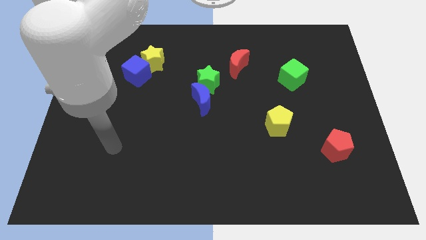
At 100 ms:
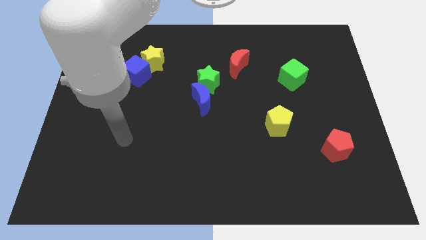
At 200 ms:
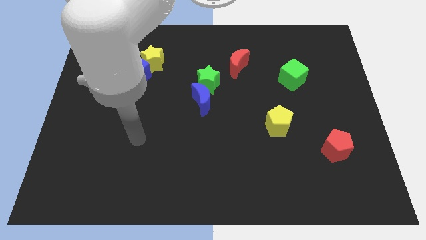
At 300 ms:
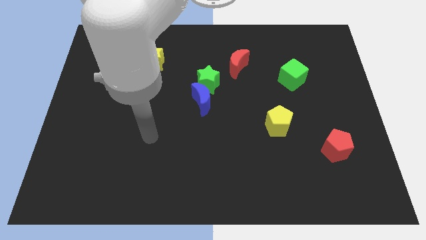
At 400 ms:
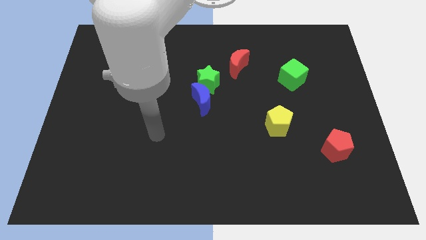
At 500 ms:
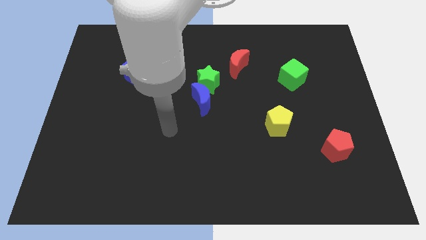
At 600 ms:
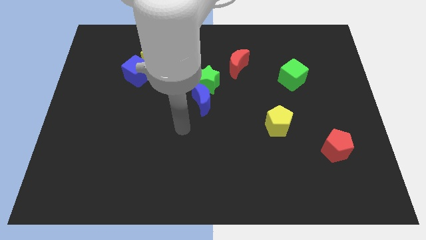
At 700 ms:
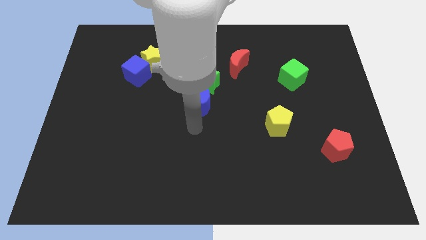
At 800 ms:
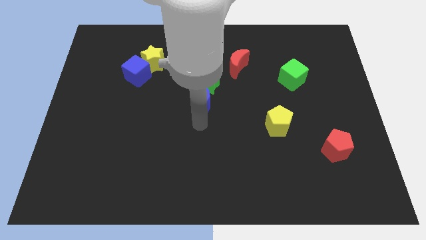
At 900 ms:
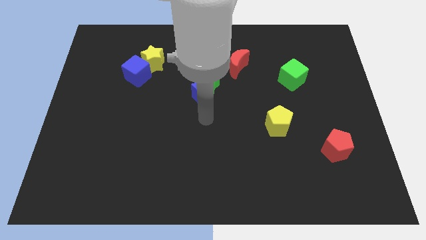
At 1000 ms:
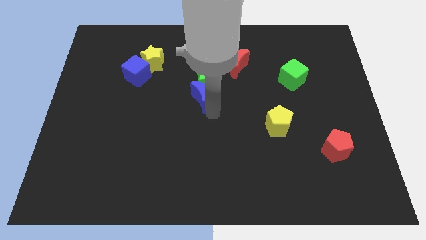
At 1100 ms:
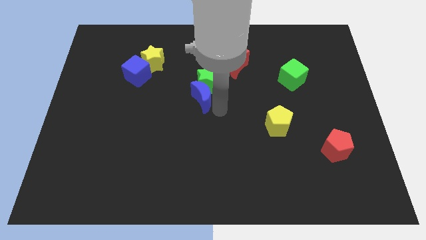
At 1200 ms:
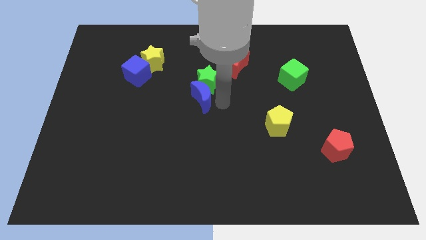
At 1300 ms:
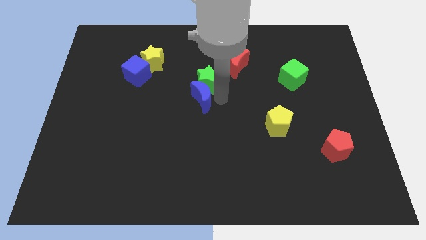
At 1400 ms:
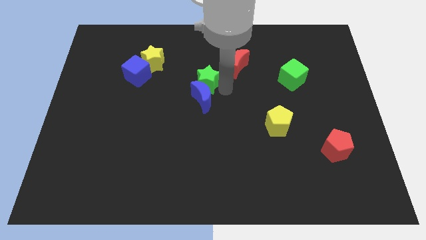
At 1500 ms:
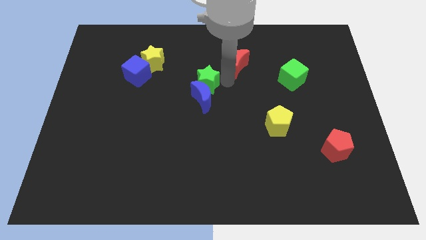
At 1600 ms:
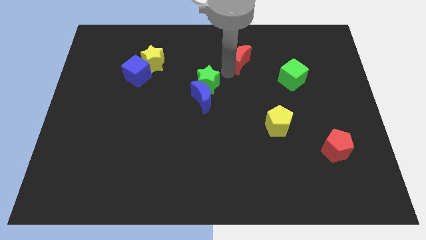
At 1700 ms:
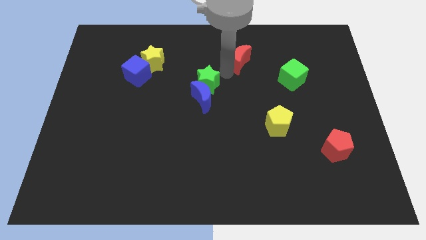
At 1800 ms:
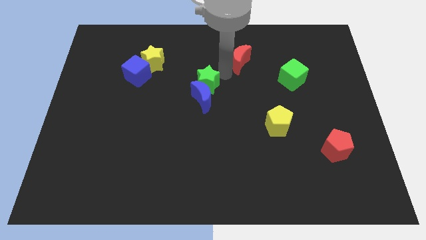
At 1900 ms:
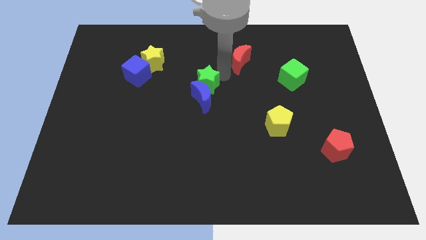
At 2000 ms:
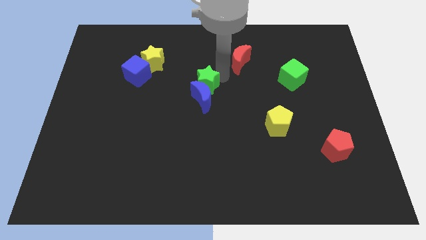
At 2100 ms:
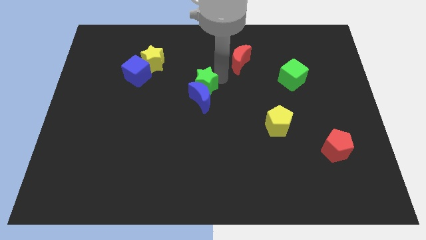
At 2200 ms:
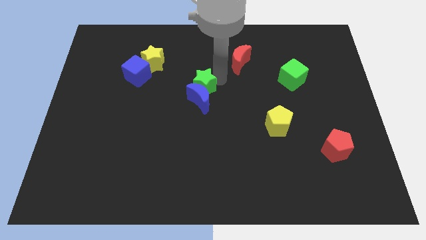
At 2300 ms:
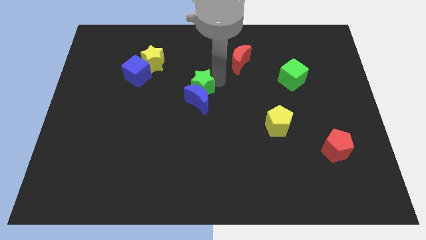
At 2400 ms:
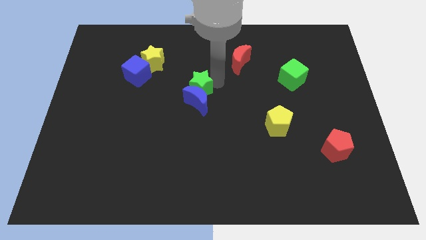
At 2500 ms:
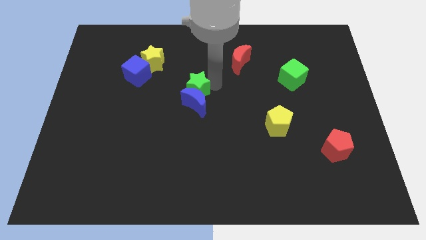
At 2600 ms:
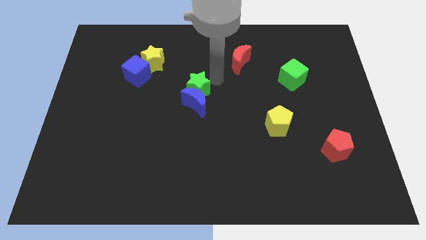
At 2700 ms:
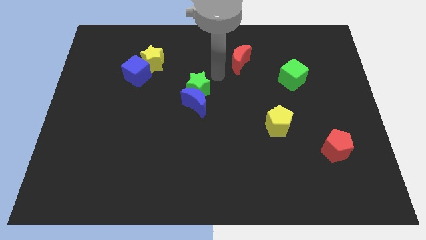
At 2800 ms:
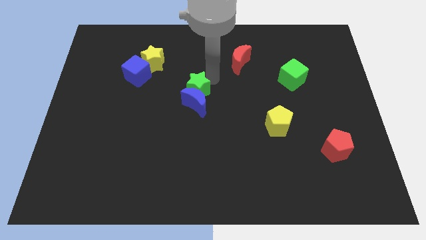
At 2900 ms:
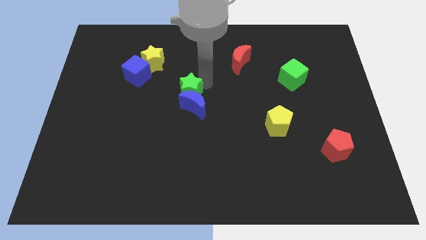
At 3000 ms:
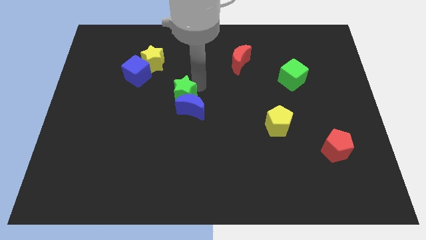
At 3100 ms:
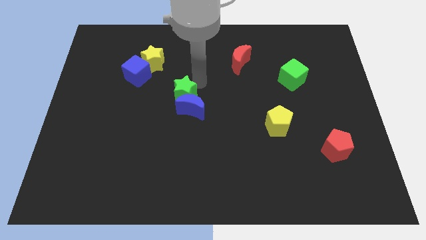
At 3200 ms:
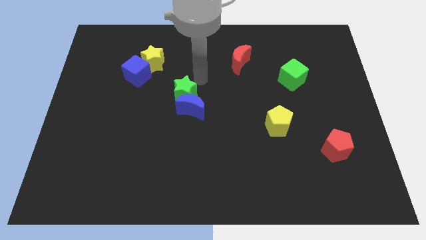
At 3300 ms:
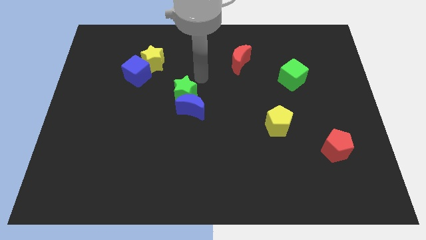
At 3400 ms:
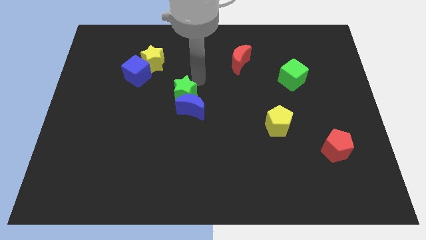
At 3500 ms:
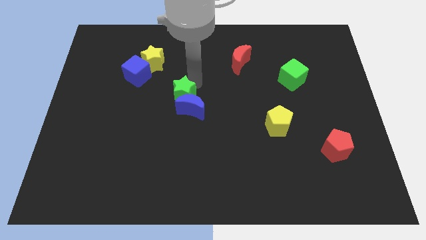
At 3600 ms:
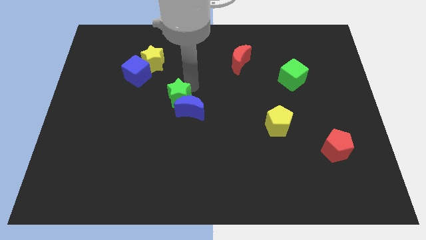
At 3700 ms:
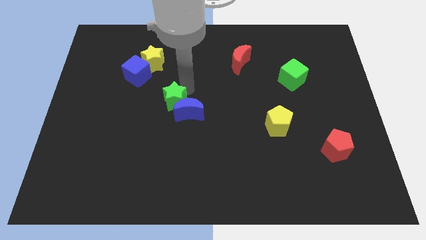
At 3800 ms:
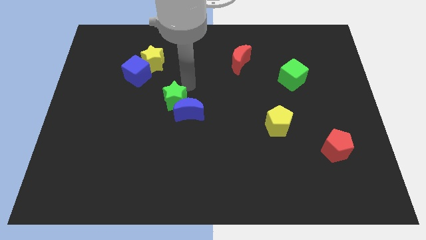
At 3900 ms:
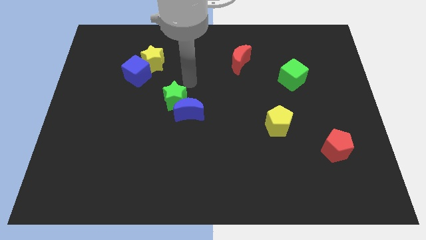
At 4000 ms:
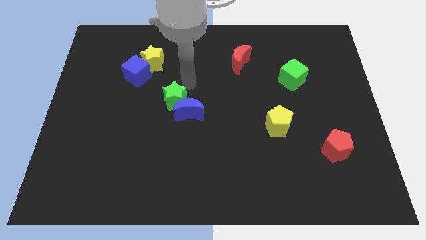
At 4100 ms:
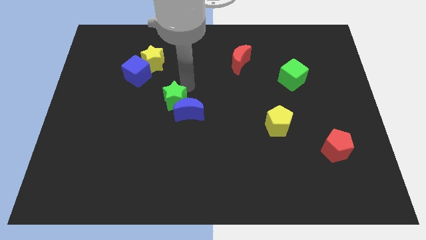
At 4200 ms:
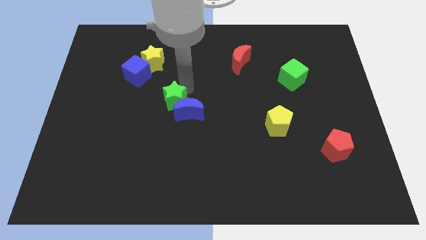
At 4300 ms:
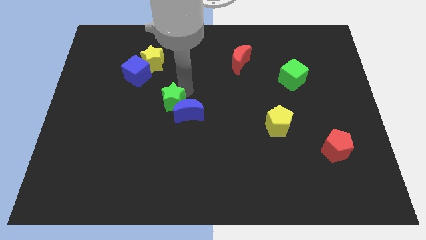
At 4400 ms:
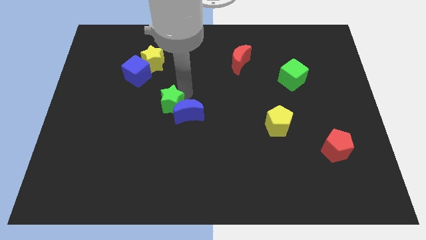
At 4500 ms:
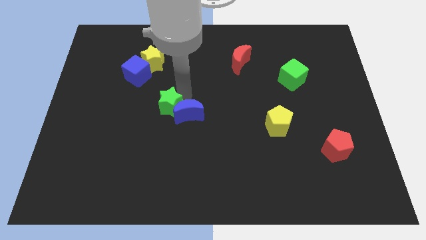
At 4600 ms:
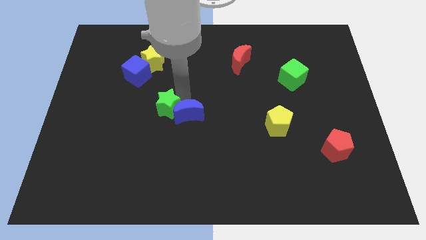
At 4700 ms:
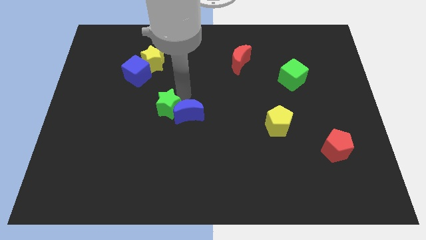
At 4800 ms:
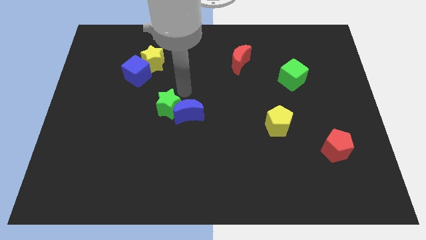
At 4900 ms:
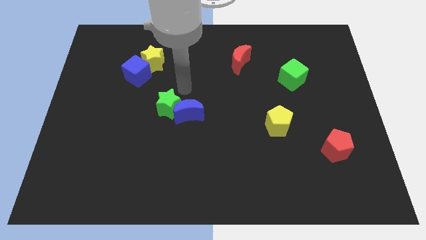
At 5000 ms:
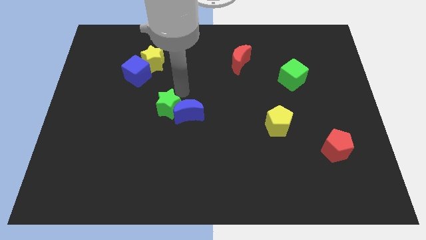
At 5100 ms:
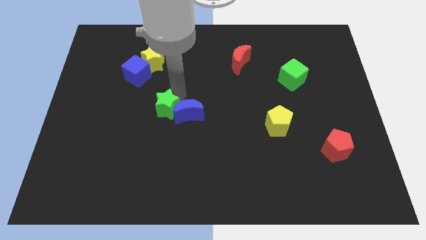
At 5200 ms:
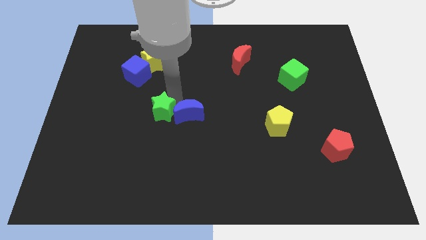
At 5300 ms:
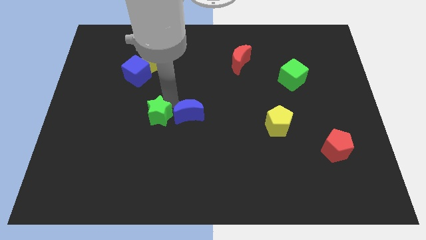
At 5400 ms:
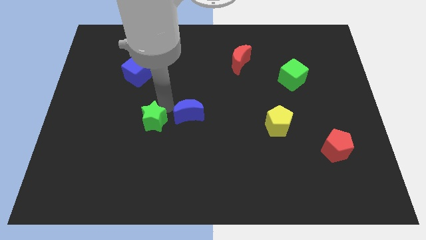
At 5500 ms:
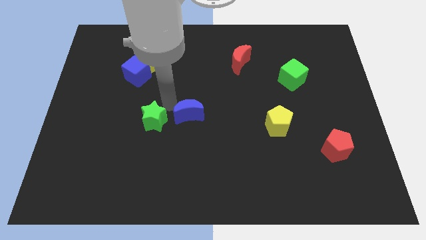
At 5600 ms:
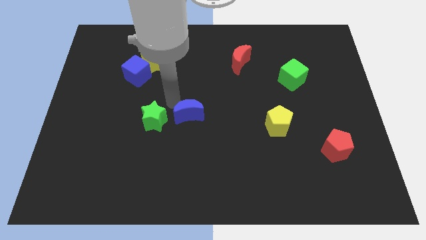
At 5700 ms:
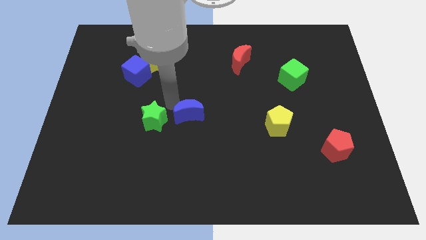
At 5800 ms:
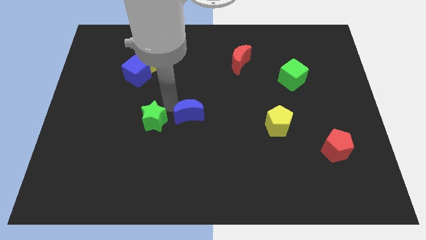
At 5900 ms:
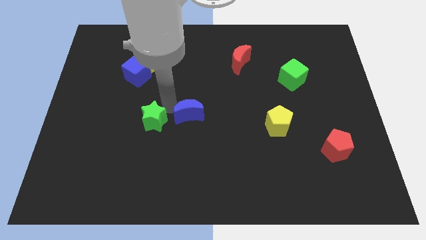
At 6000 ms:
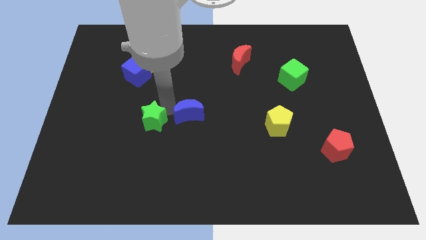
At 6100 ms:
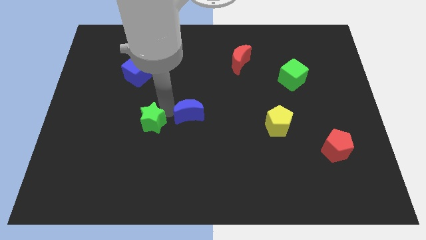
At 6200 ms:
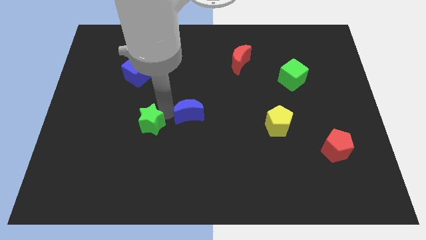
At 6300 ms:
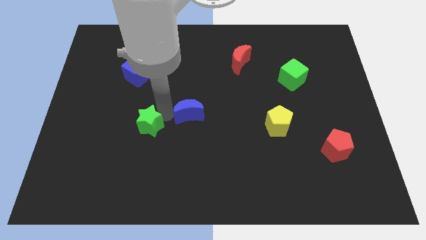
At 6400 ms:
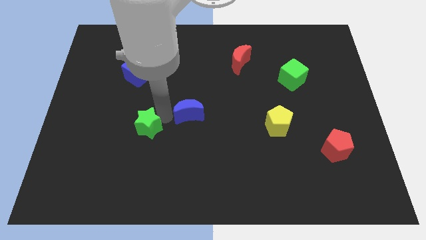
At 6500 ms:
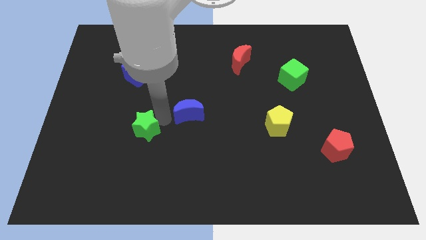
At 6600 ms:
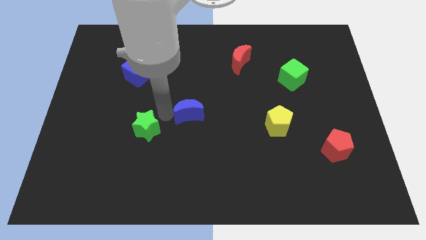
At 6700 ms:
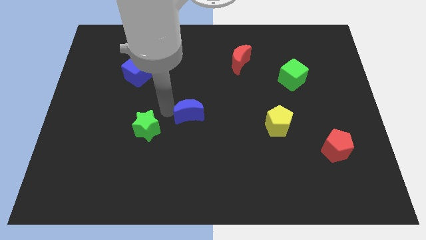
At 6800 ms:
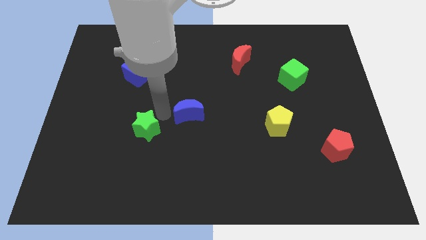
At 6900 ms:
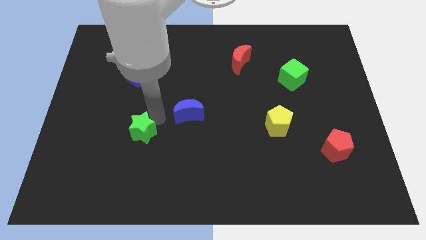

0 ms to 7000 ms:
push the green star down and to the left diagonally

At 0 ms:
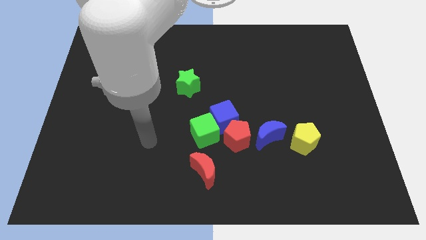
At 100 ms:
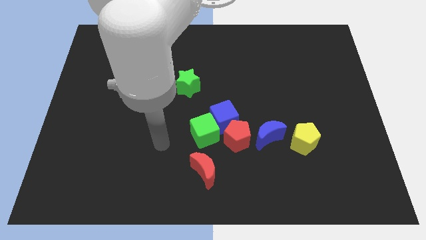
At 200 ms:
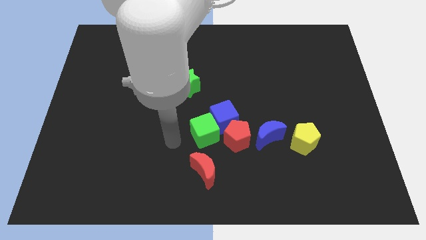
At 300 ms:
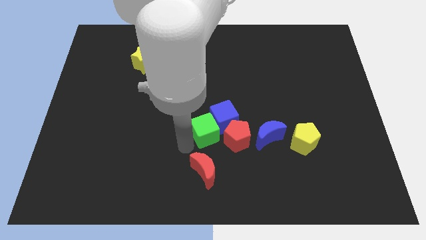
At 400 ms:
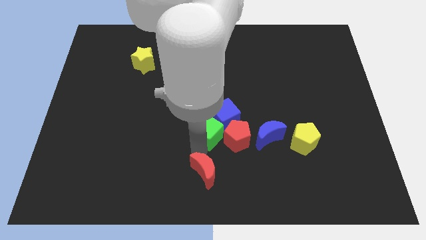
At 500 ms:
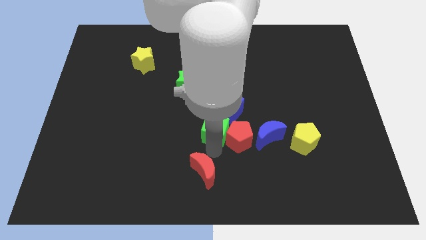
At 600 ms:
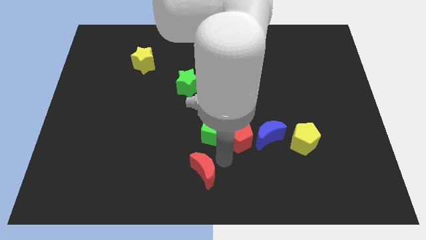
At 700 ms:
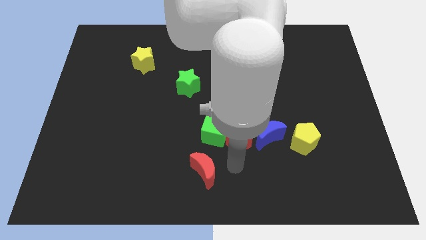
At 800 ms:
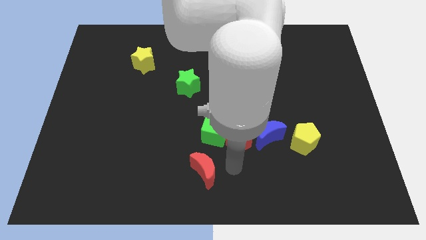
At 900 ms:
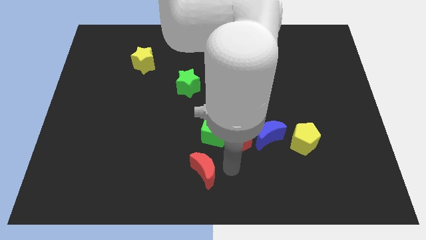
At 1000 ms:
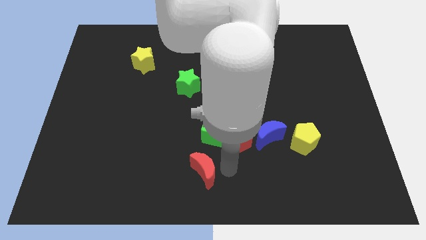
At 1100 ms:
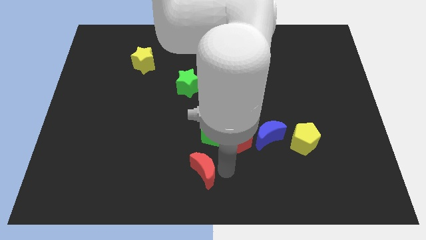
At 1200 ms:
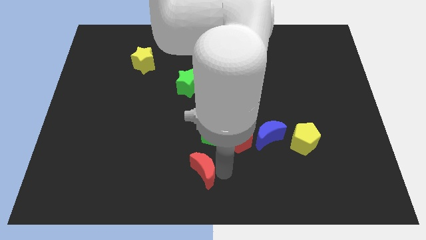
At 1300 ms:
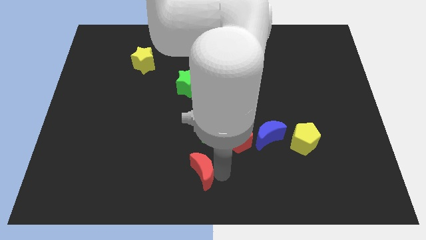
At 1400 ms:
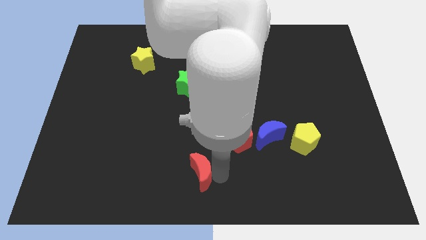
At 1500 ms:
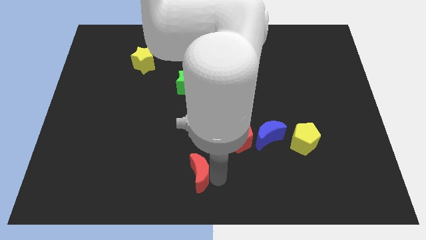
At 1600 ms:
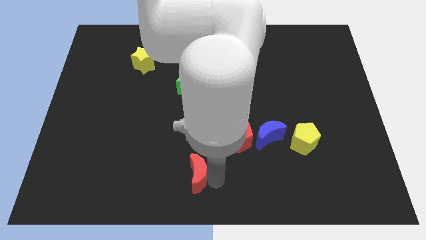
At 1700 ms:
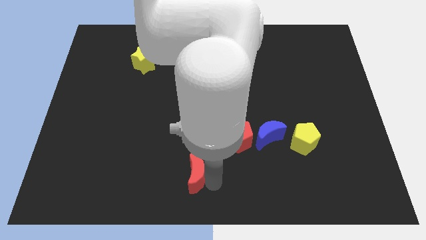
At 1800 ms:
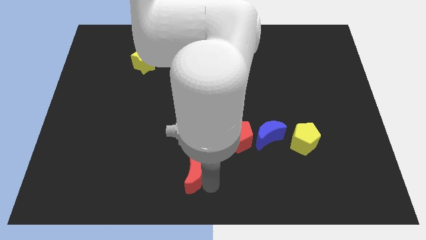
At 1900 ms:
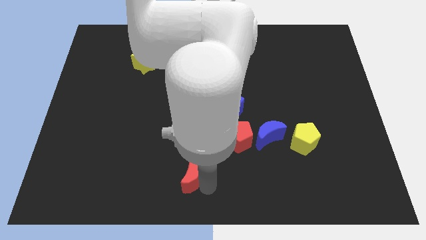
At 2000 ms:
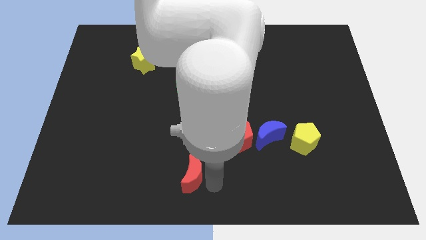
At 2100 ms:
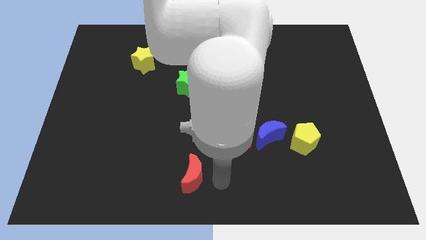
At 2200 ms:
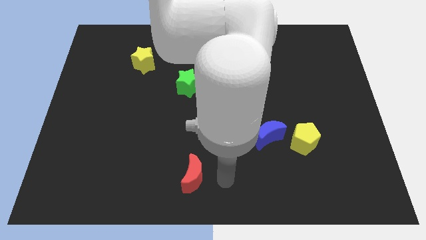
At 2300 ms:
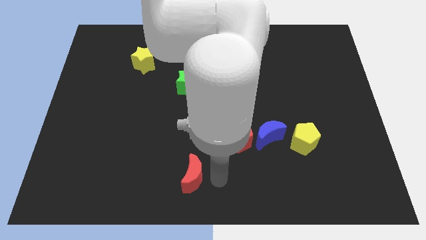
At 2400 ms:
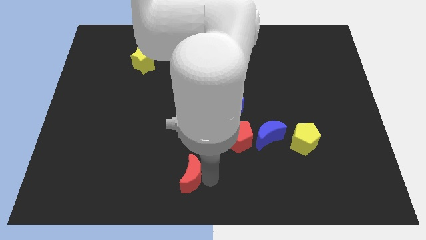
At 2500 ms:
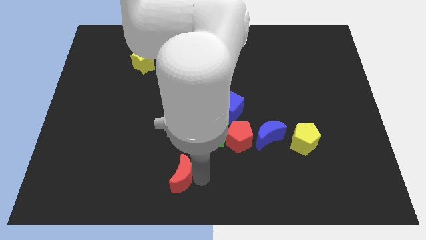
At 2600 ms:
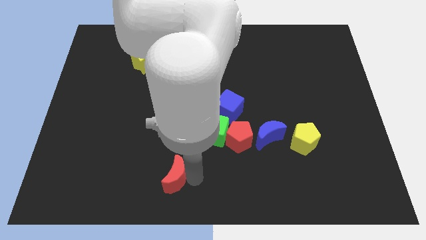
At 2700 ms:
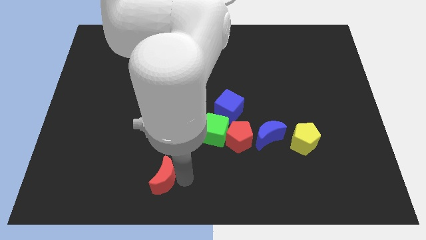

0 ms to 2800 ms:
slightly slide the red moon to the left
